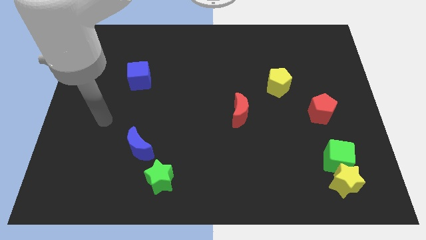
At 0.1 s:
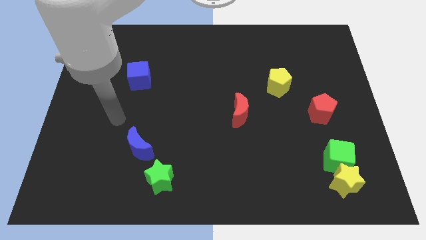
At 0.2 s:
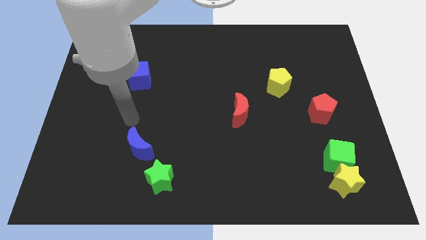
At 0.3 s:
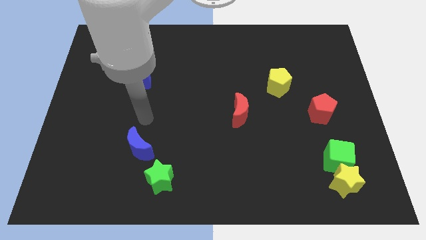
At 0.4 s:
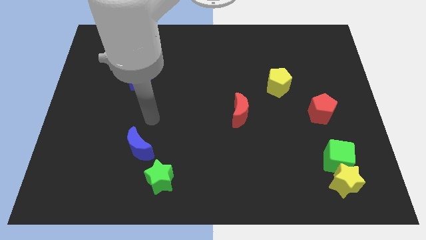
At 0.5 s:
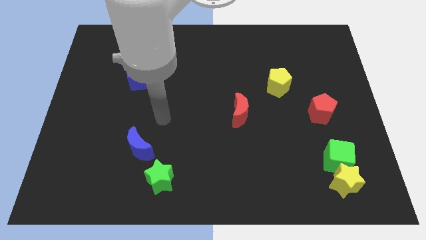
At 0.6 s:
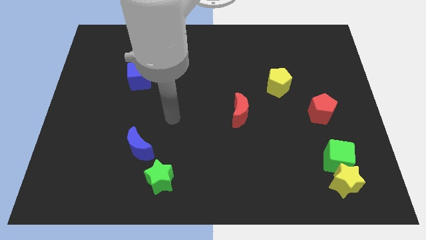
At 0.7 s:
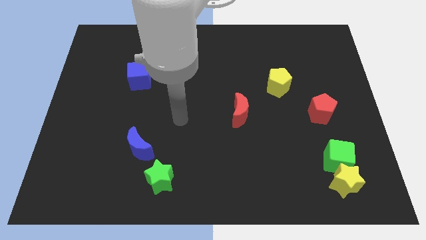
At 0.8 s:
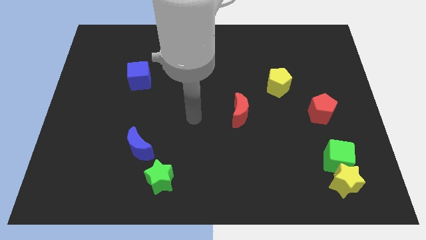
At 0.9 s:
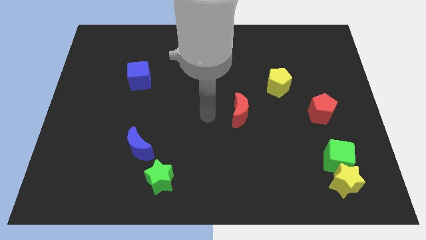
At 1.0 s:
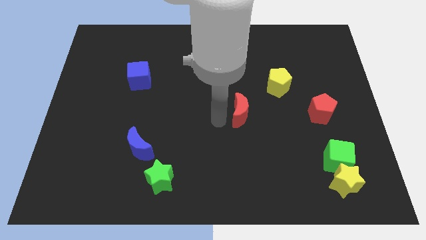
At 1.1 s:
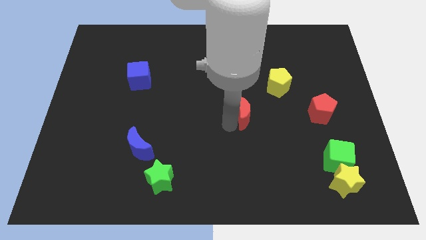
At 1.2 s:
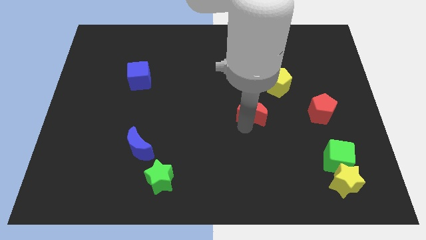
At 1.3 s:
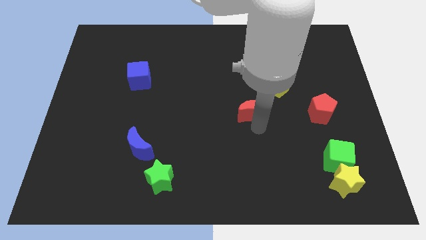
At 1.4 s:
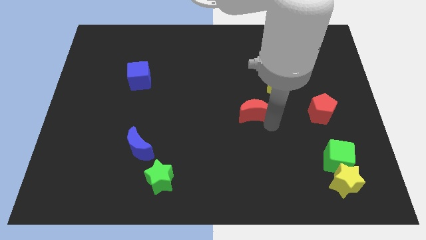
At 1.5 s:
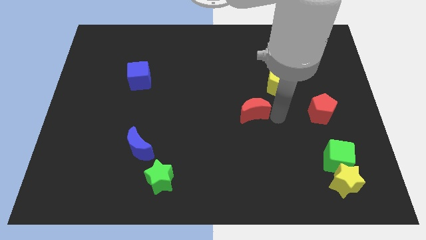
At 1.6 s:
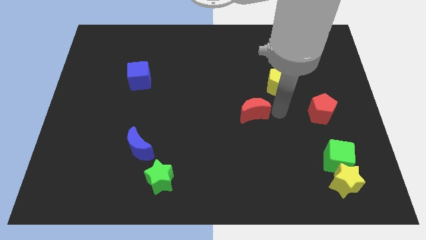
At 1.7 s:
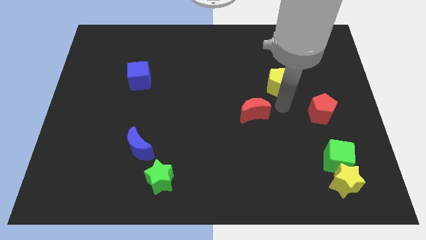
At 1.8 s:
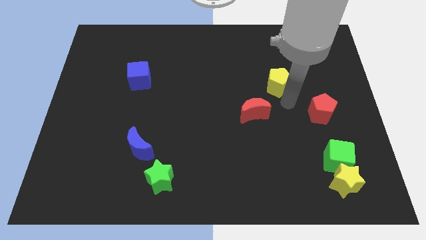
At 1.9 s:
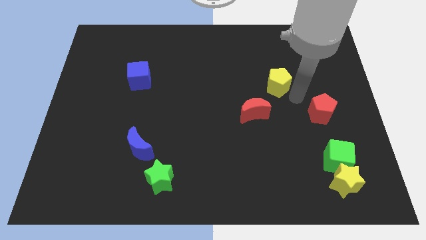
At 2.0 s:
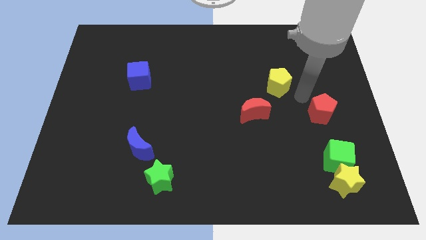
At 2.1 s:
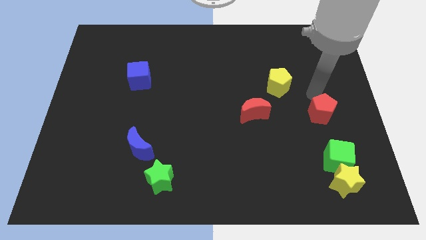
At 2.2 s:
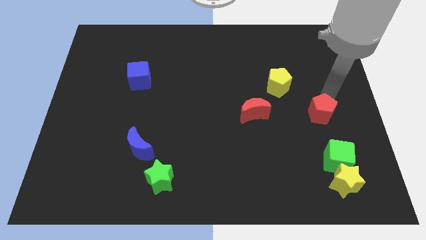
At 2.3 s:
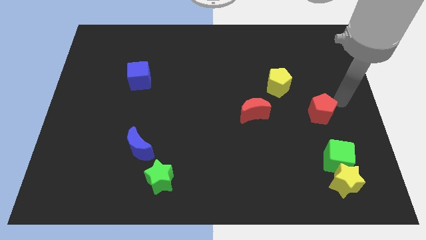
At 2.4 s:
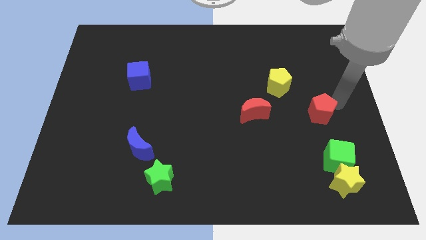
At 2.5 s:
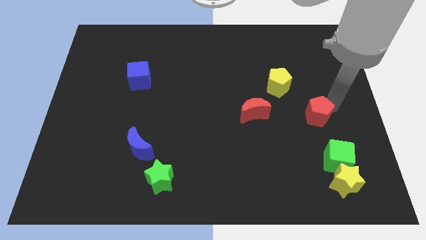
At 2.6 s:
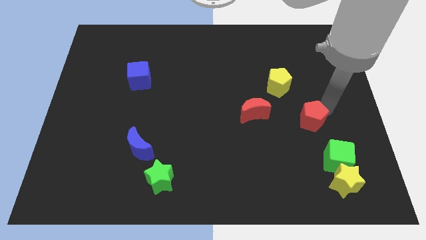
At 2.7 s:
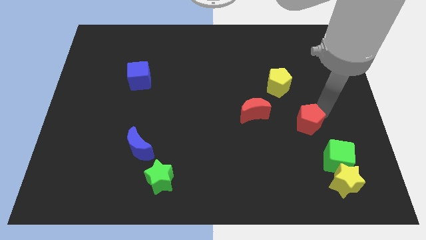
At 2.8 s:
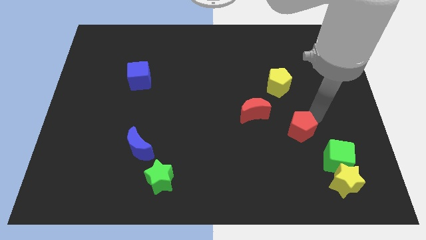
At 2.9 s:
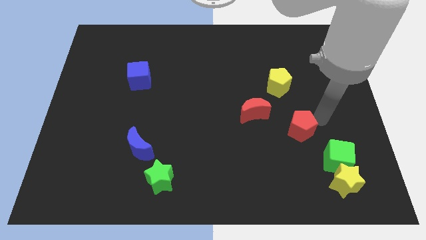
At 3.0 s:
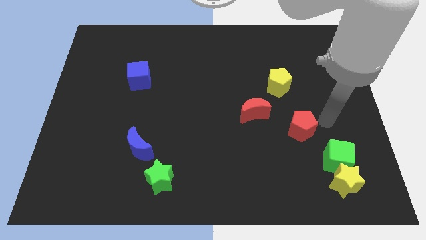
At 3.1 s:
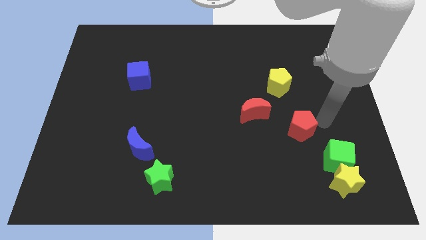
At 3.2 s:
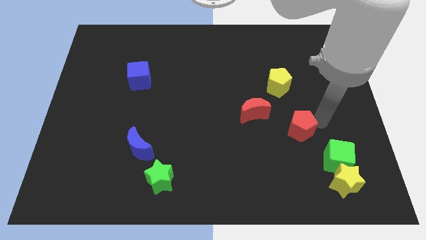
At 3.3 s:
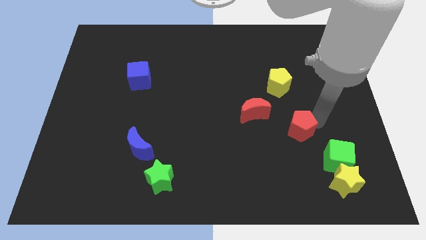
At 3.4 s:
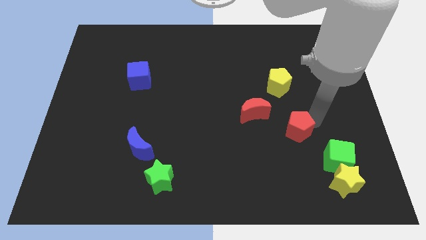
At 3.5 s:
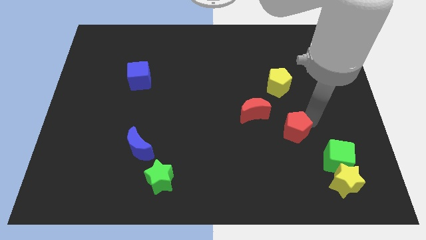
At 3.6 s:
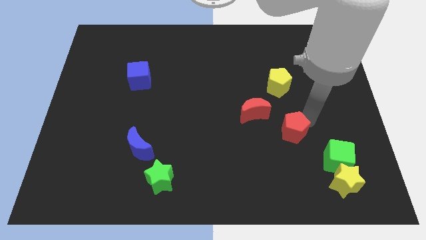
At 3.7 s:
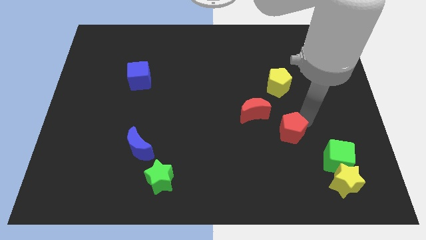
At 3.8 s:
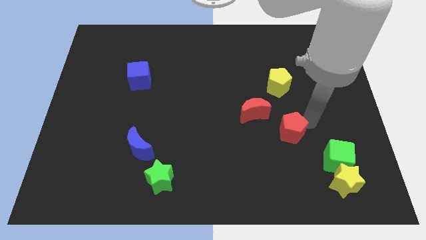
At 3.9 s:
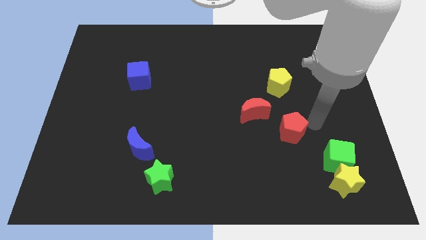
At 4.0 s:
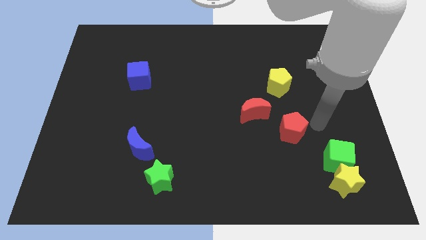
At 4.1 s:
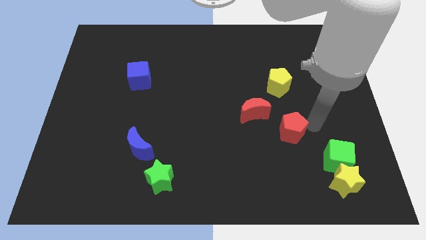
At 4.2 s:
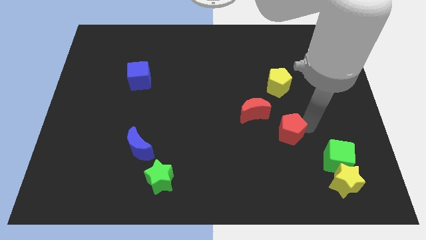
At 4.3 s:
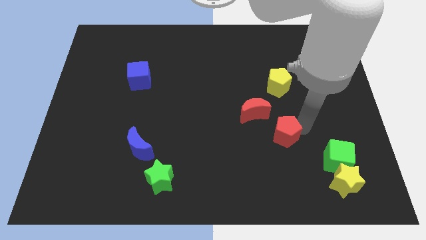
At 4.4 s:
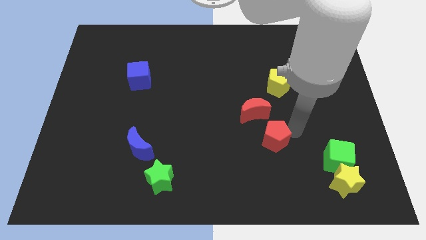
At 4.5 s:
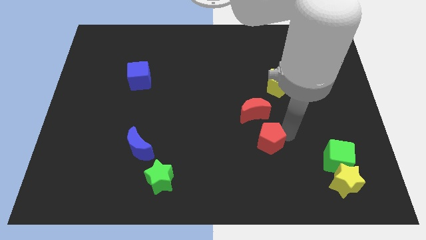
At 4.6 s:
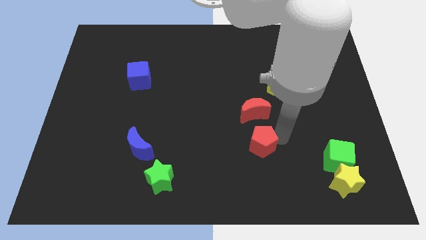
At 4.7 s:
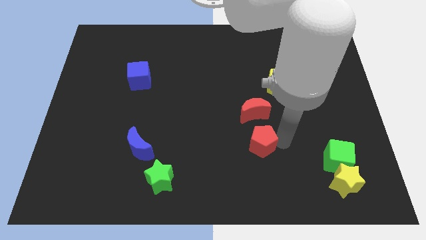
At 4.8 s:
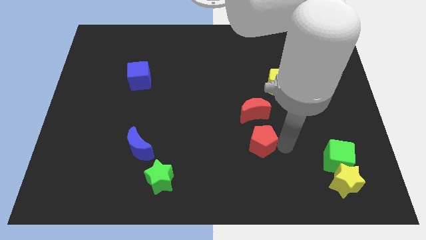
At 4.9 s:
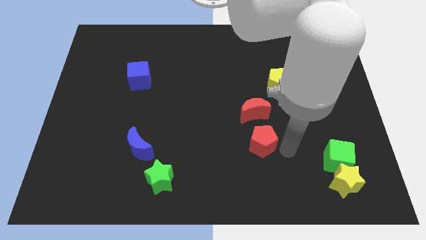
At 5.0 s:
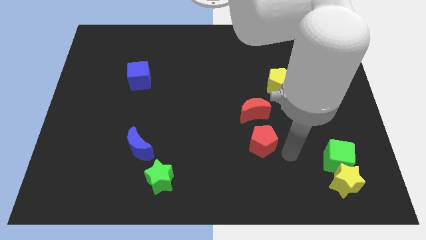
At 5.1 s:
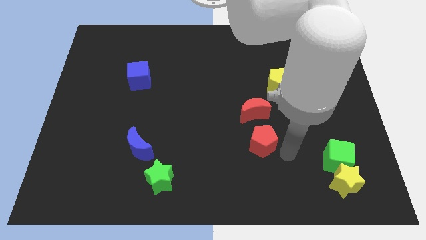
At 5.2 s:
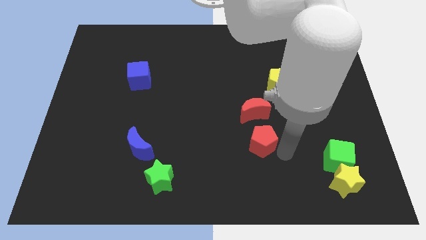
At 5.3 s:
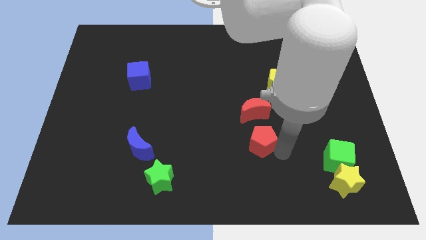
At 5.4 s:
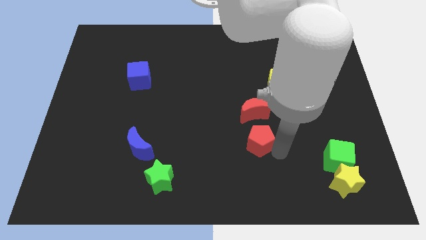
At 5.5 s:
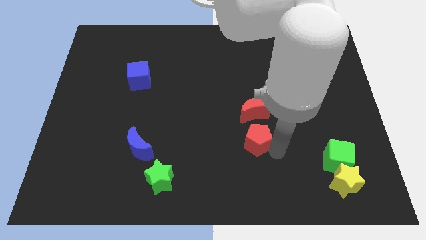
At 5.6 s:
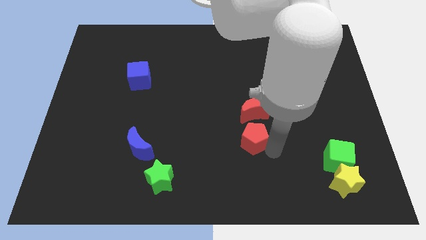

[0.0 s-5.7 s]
slide the red pentagon diagonally down and to the left of the red moon

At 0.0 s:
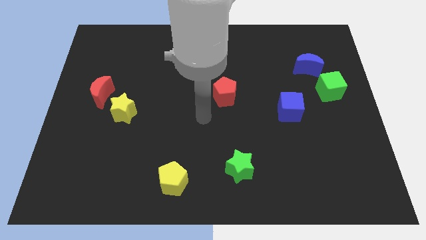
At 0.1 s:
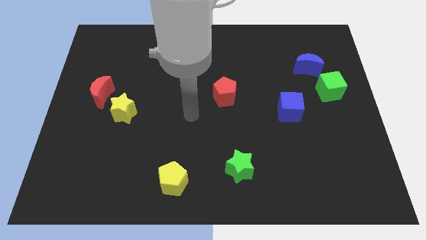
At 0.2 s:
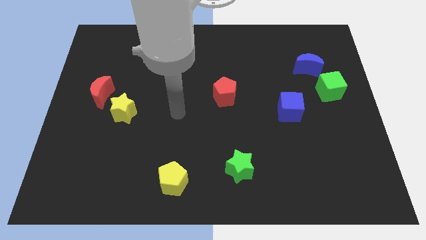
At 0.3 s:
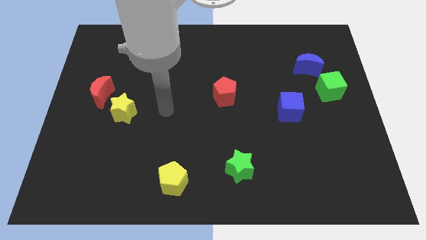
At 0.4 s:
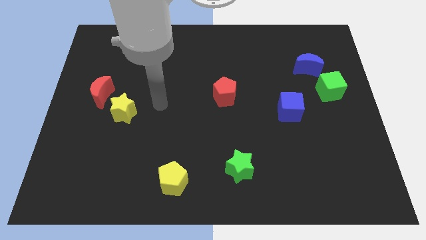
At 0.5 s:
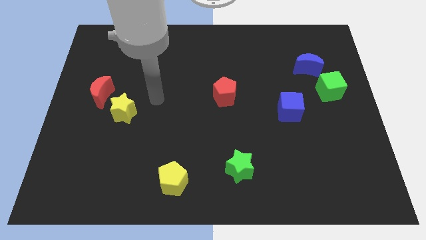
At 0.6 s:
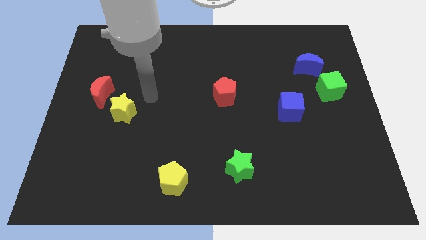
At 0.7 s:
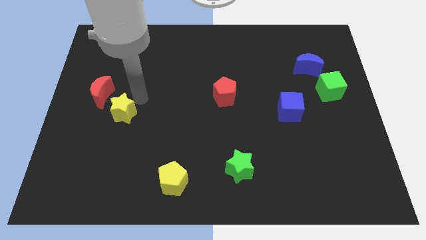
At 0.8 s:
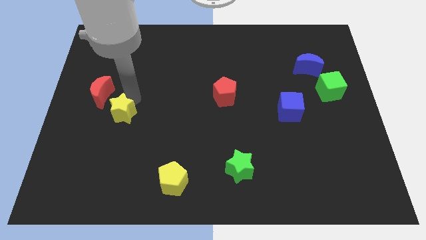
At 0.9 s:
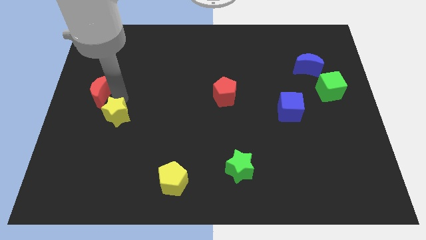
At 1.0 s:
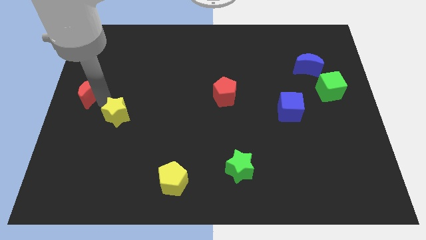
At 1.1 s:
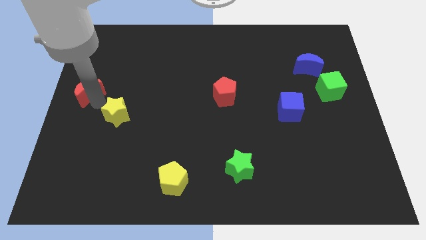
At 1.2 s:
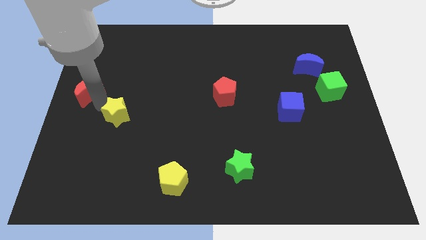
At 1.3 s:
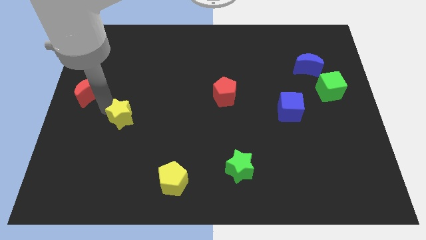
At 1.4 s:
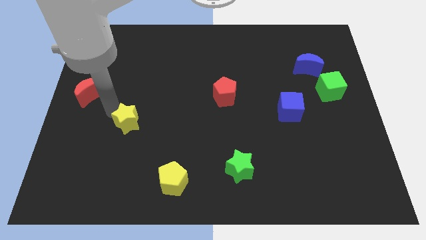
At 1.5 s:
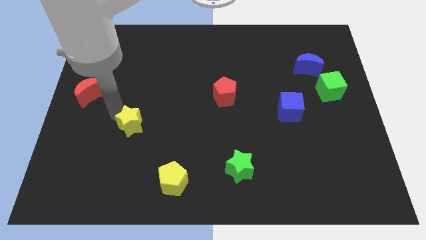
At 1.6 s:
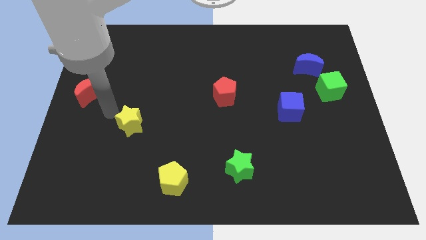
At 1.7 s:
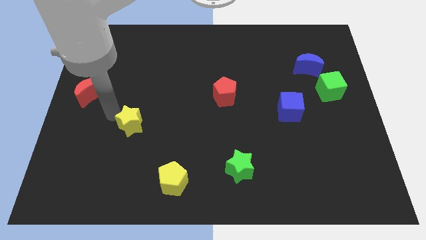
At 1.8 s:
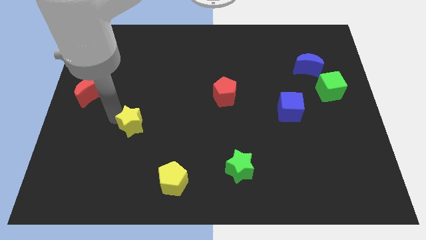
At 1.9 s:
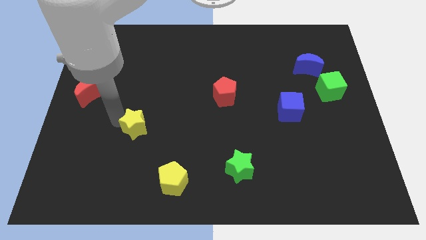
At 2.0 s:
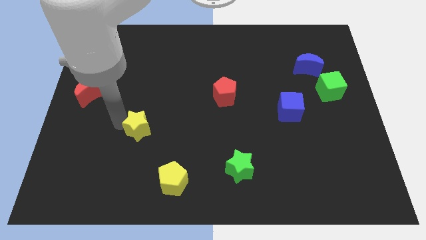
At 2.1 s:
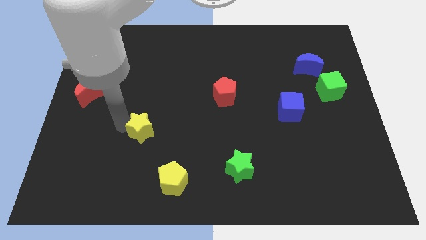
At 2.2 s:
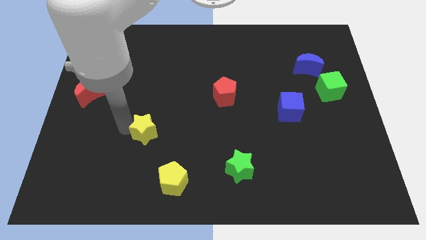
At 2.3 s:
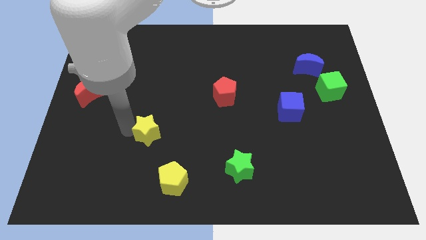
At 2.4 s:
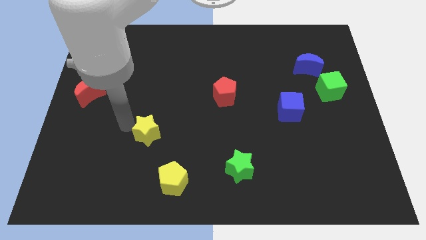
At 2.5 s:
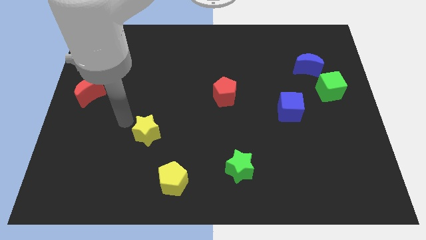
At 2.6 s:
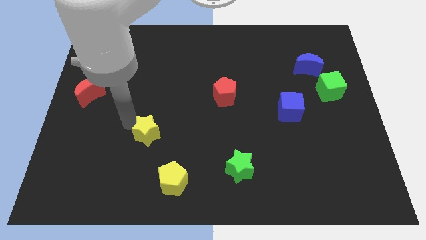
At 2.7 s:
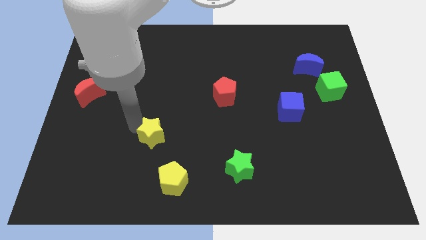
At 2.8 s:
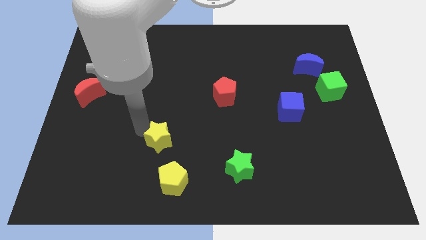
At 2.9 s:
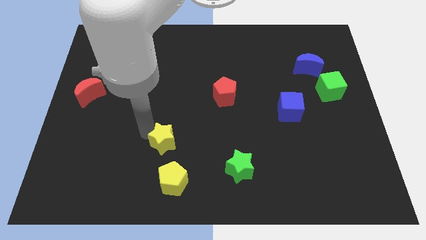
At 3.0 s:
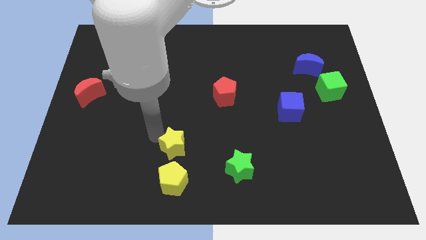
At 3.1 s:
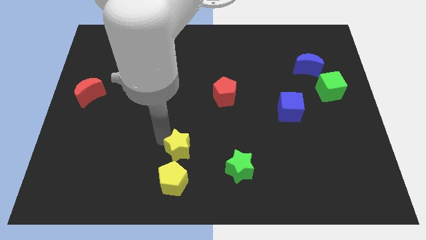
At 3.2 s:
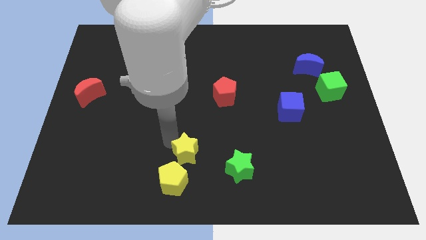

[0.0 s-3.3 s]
move the yellow star just left of the green star
